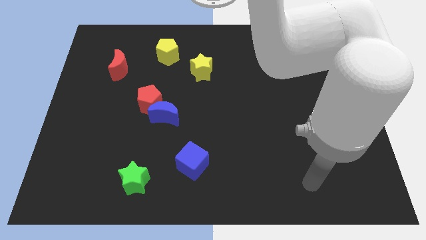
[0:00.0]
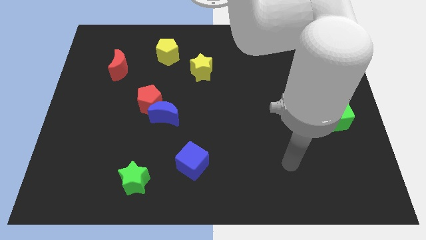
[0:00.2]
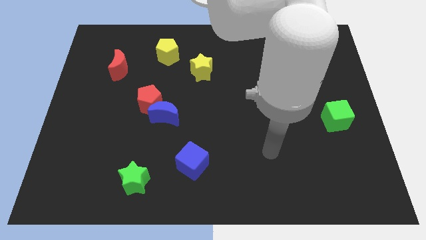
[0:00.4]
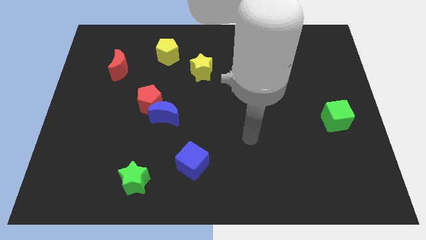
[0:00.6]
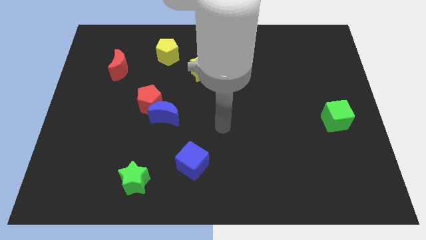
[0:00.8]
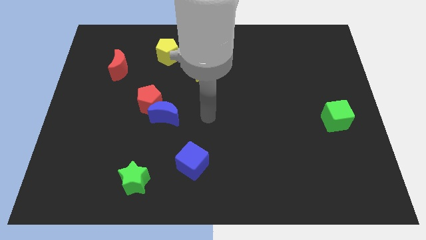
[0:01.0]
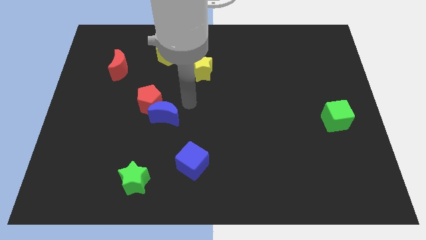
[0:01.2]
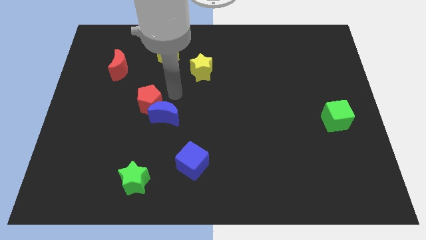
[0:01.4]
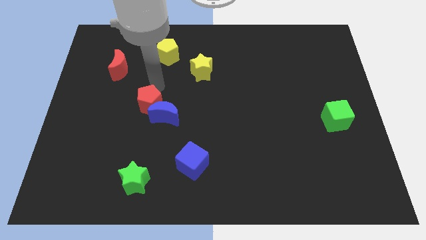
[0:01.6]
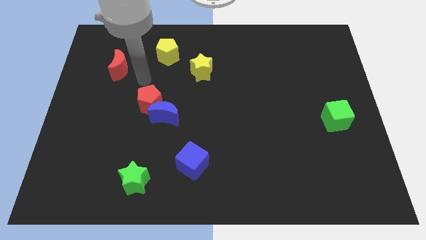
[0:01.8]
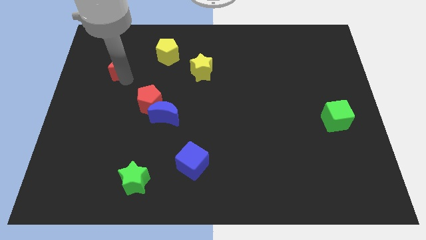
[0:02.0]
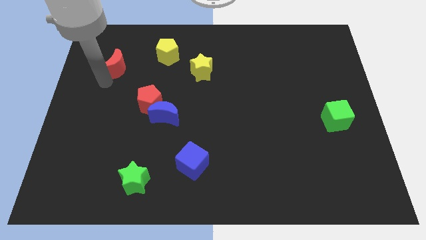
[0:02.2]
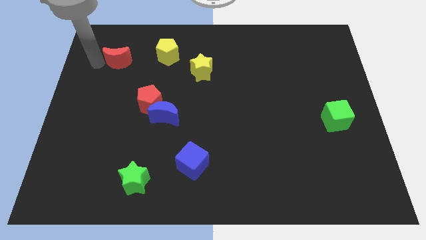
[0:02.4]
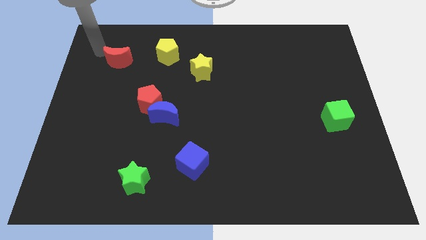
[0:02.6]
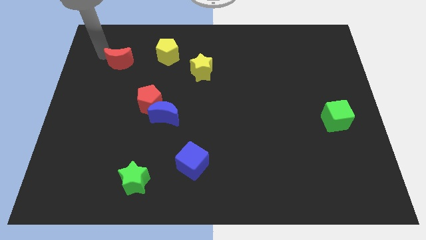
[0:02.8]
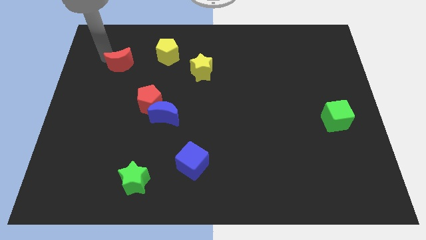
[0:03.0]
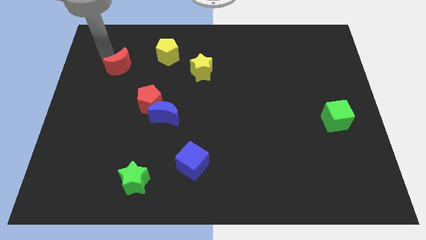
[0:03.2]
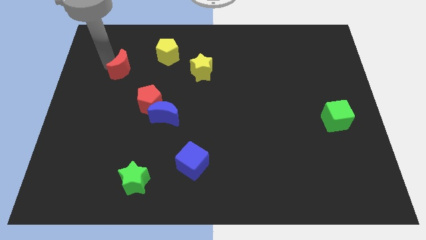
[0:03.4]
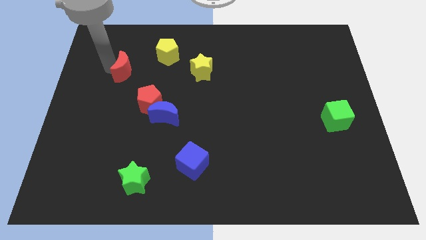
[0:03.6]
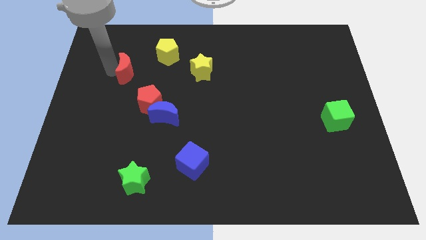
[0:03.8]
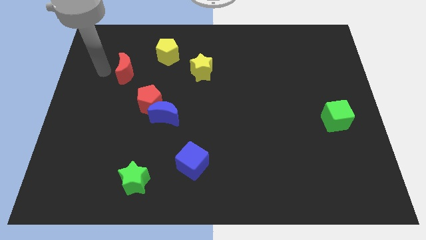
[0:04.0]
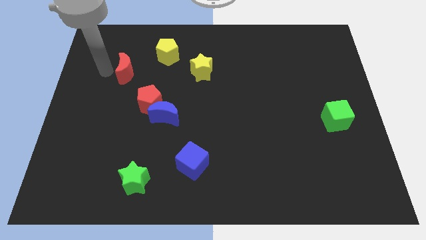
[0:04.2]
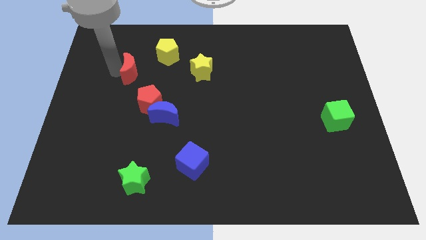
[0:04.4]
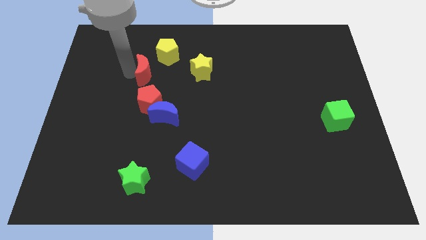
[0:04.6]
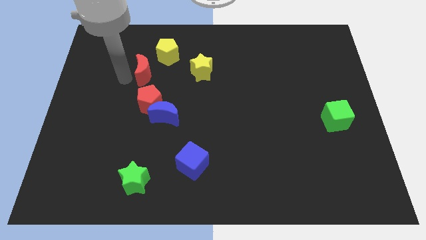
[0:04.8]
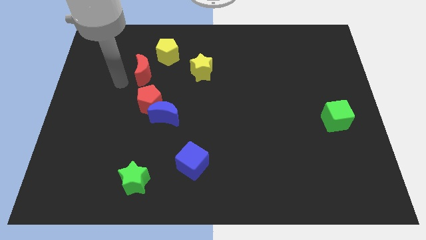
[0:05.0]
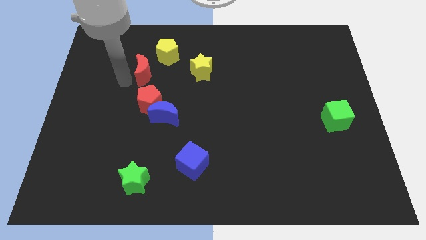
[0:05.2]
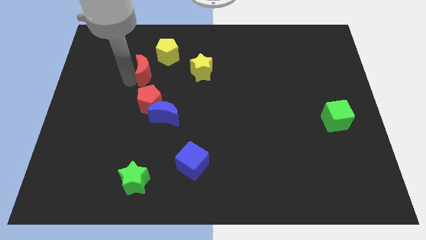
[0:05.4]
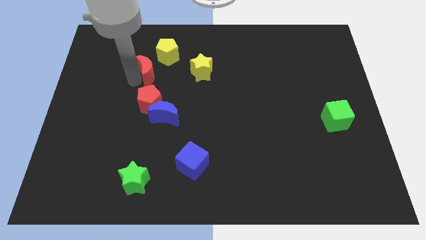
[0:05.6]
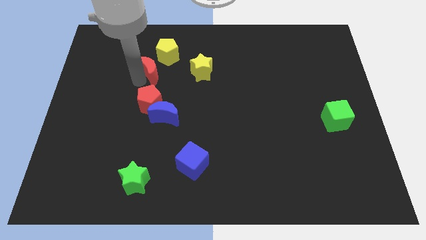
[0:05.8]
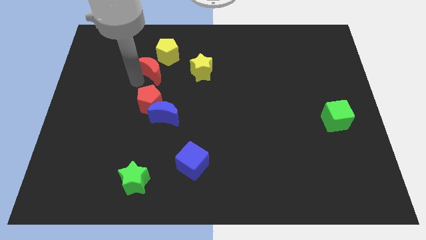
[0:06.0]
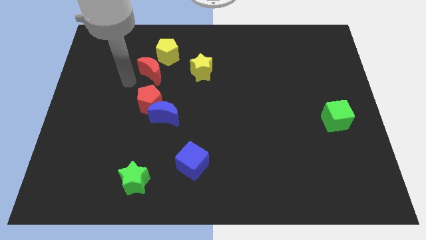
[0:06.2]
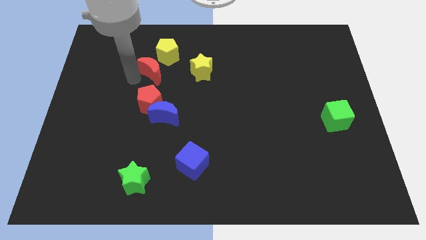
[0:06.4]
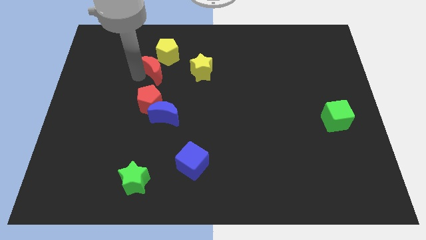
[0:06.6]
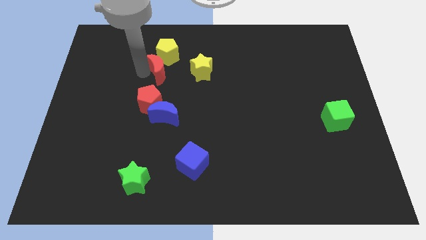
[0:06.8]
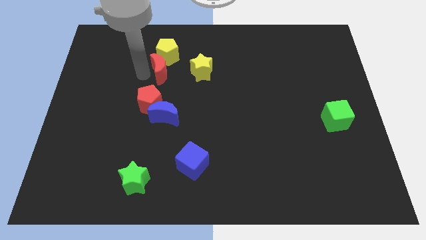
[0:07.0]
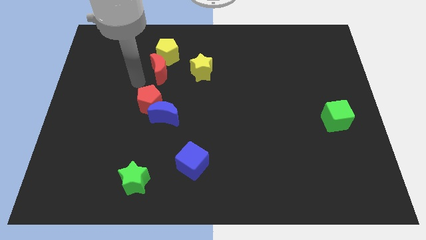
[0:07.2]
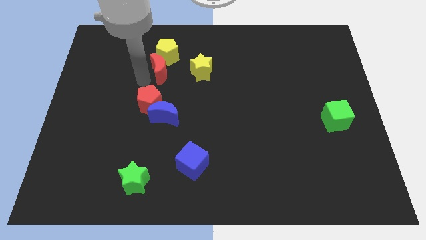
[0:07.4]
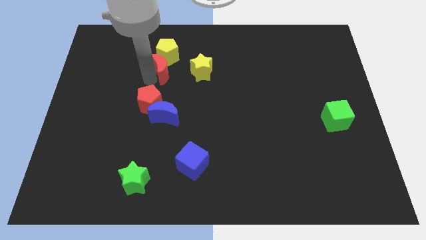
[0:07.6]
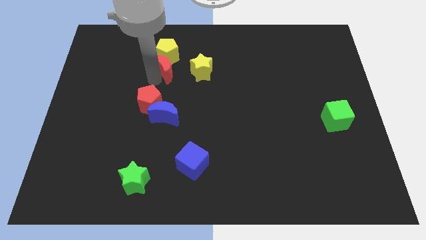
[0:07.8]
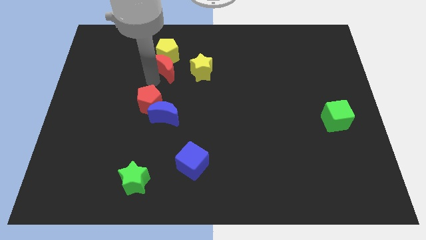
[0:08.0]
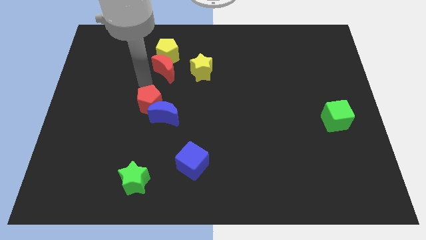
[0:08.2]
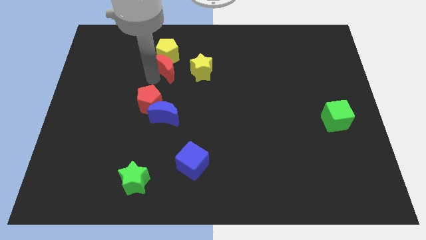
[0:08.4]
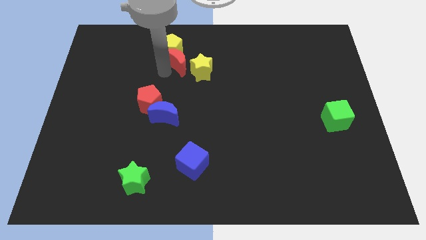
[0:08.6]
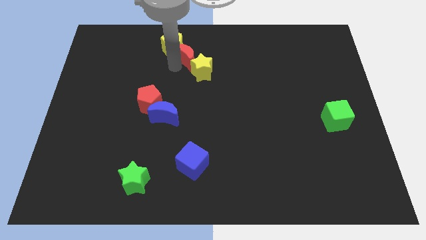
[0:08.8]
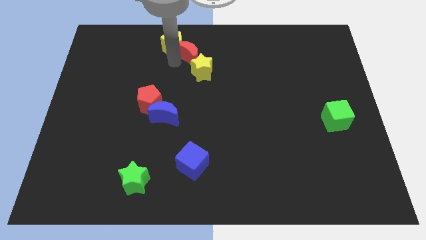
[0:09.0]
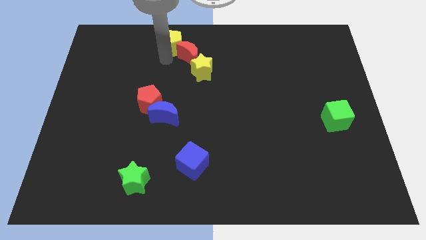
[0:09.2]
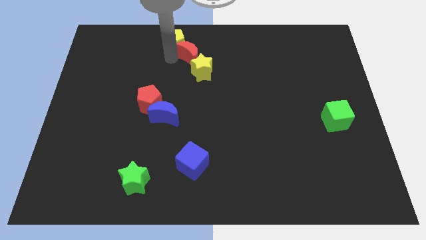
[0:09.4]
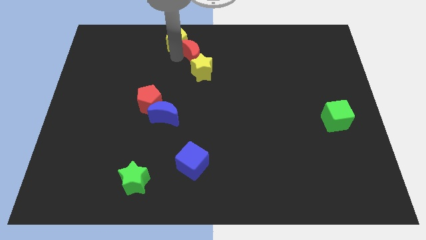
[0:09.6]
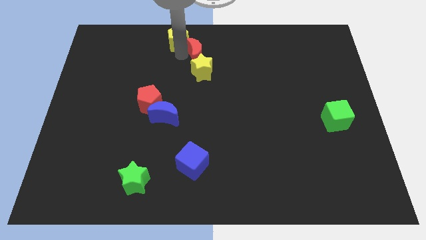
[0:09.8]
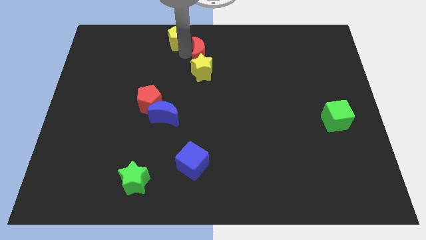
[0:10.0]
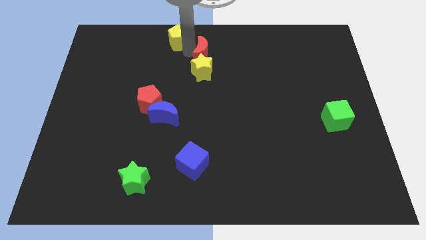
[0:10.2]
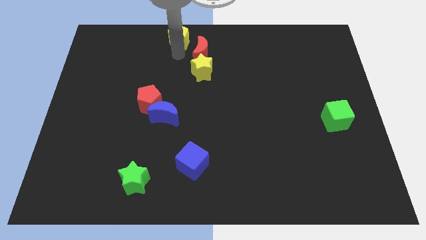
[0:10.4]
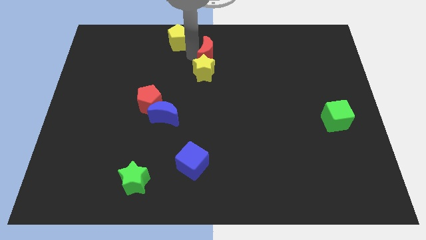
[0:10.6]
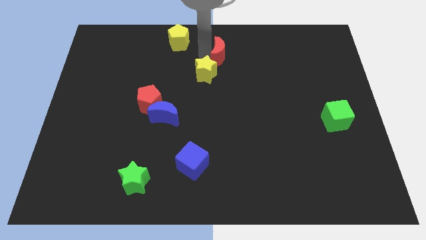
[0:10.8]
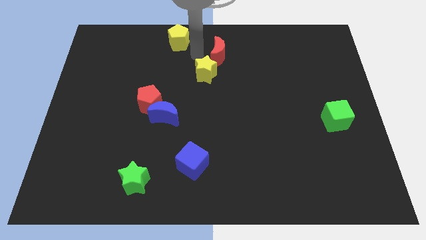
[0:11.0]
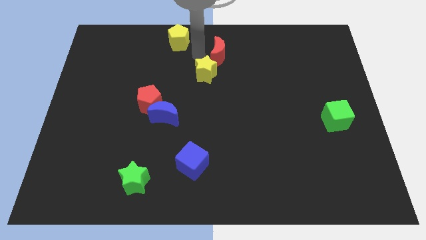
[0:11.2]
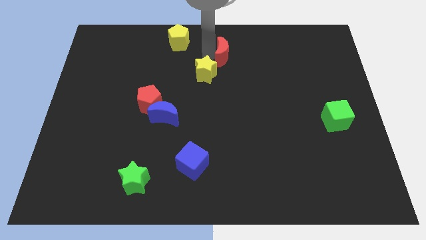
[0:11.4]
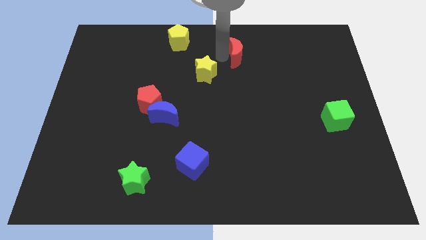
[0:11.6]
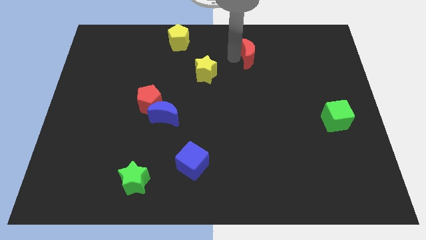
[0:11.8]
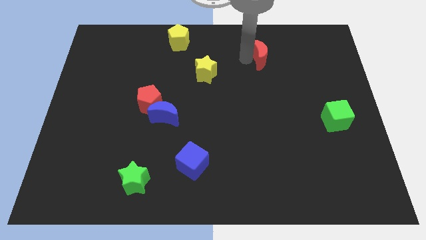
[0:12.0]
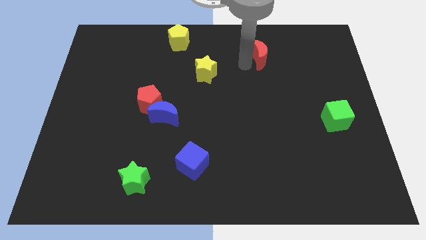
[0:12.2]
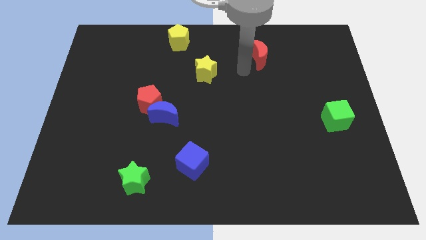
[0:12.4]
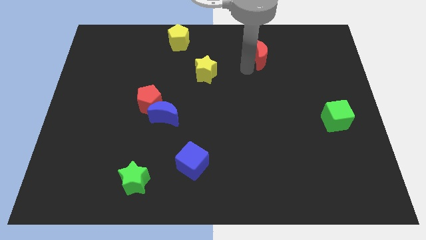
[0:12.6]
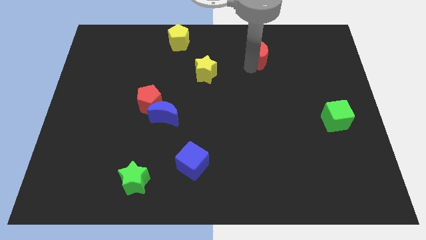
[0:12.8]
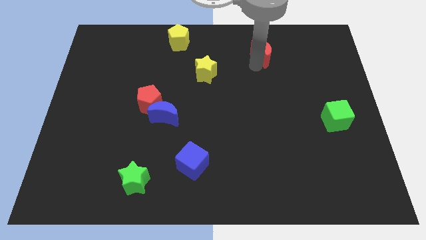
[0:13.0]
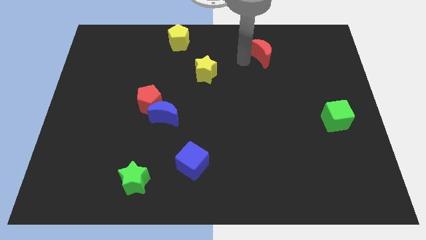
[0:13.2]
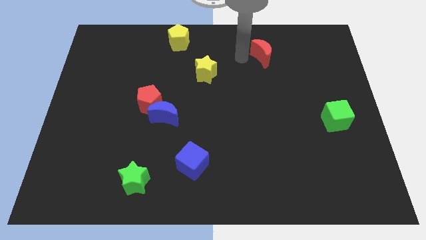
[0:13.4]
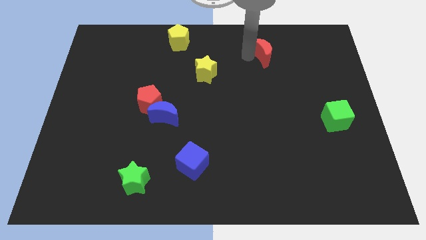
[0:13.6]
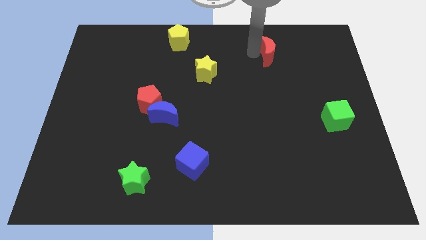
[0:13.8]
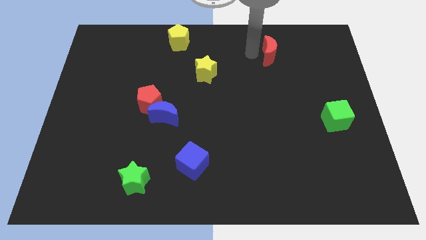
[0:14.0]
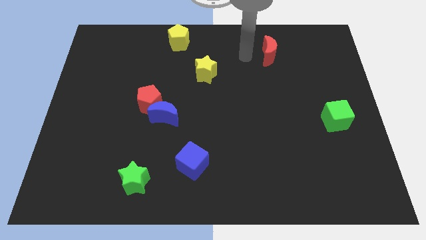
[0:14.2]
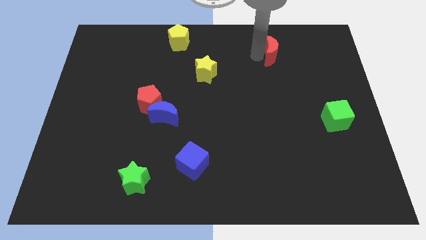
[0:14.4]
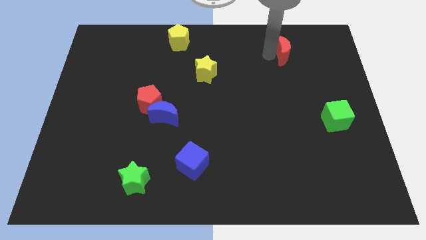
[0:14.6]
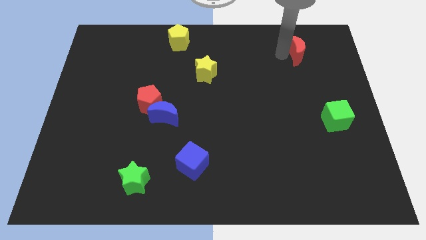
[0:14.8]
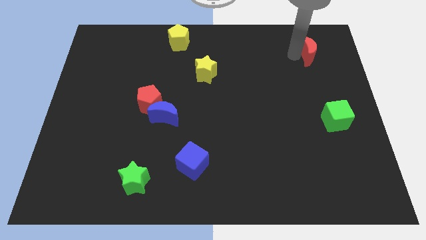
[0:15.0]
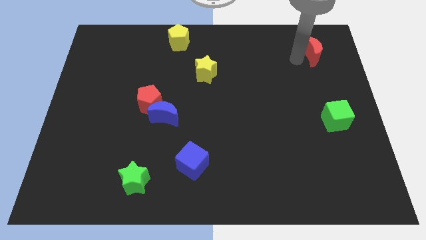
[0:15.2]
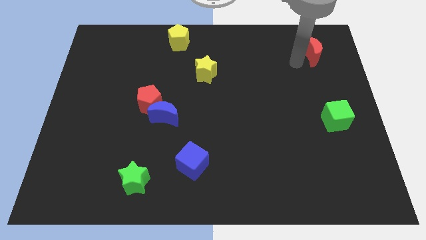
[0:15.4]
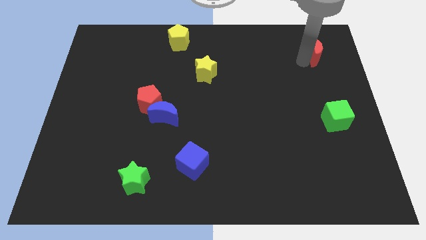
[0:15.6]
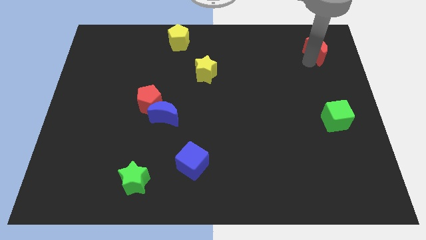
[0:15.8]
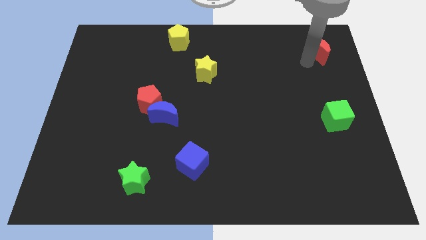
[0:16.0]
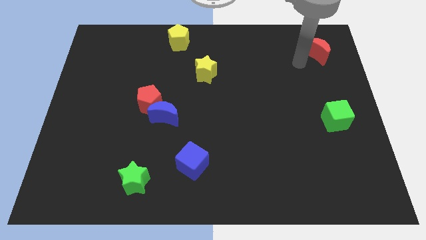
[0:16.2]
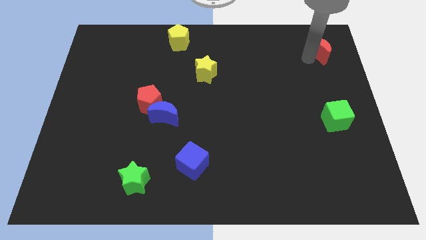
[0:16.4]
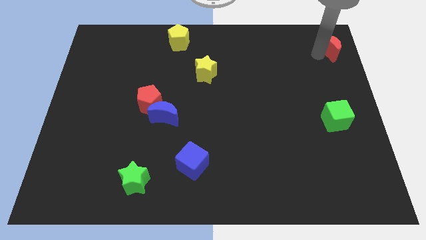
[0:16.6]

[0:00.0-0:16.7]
slide the red moon to the top right of the board
